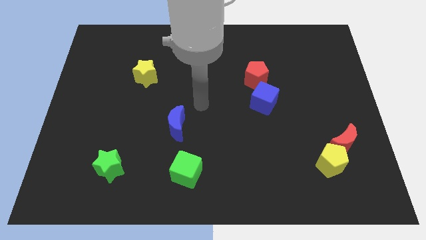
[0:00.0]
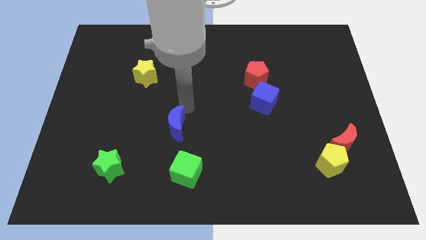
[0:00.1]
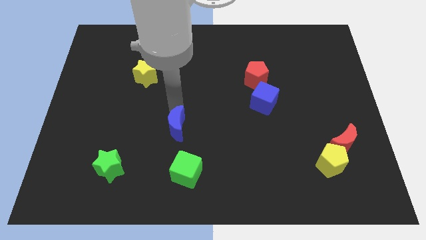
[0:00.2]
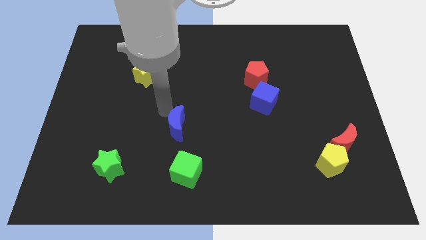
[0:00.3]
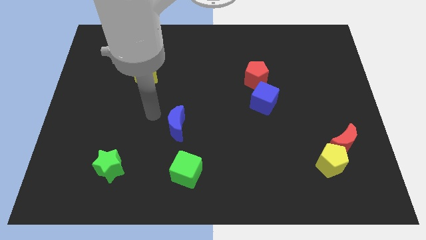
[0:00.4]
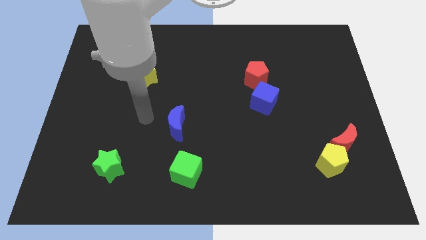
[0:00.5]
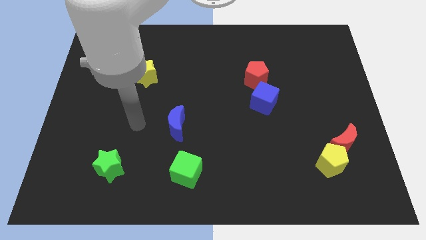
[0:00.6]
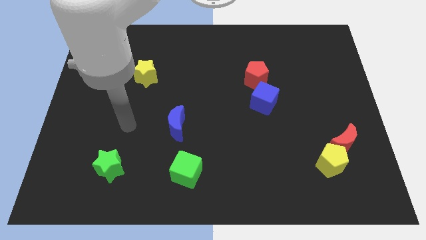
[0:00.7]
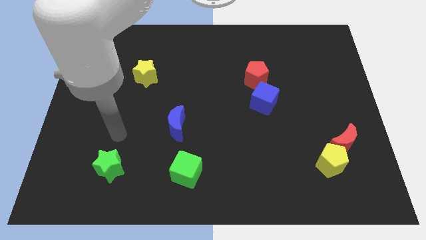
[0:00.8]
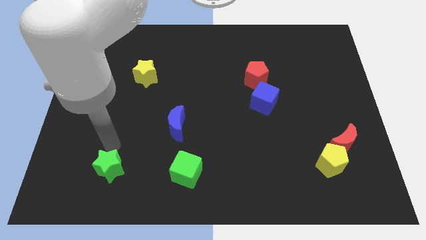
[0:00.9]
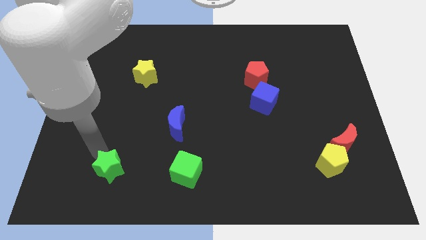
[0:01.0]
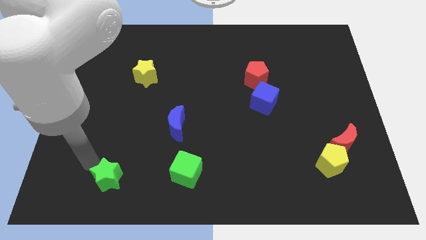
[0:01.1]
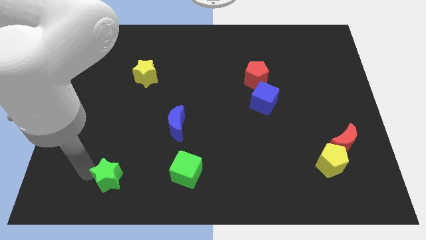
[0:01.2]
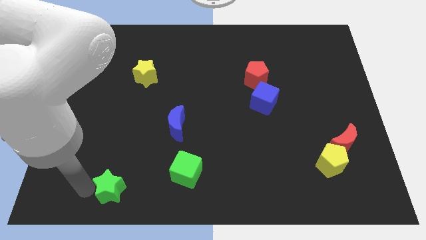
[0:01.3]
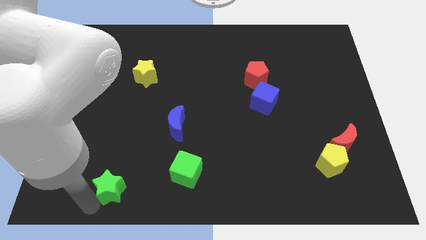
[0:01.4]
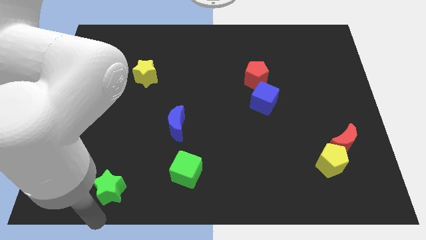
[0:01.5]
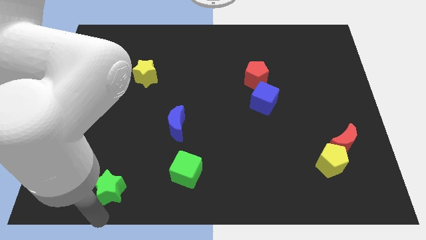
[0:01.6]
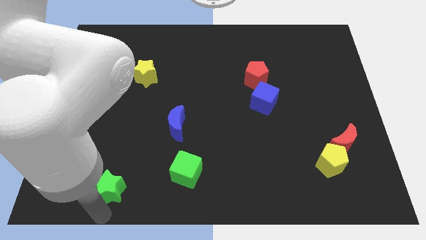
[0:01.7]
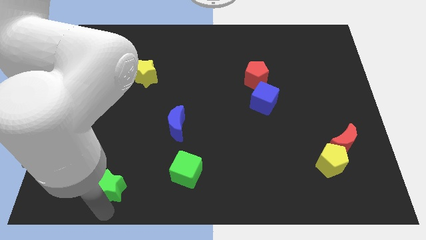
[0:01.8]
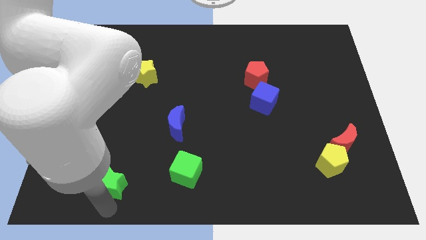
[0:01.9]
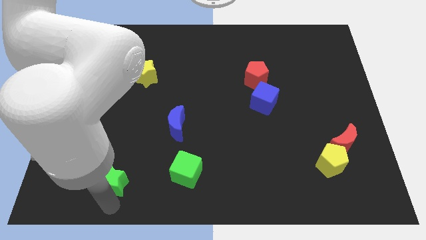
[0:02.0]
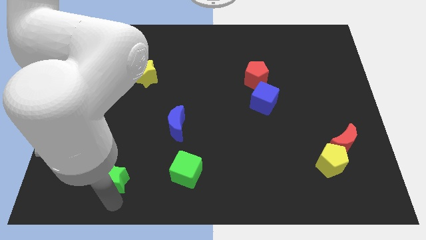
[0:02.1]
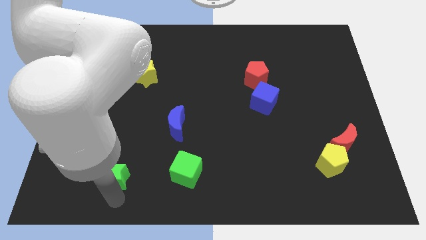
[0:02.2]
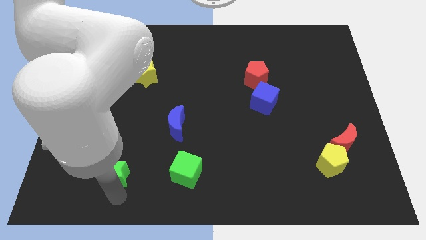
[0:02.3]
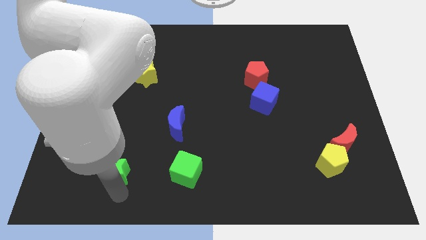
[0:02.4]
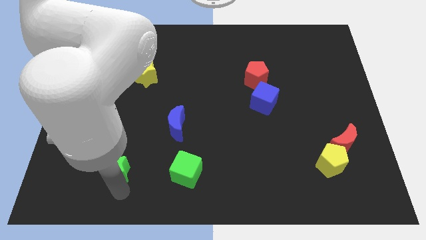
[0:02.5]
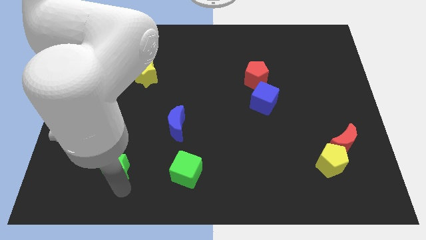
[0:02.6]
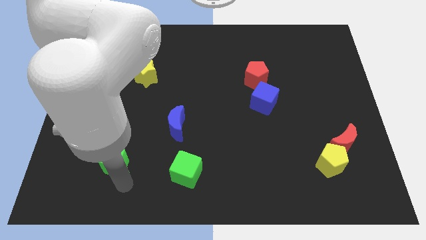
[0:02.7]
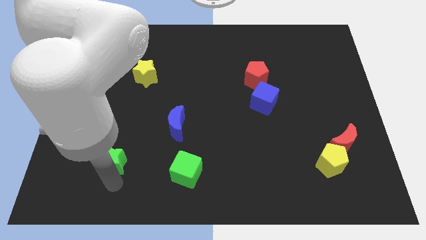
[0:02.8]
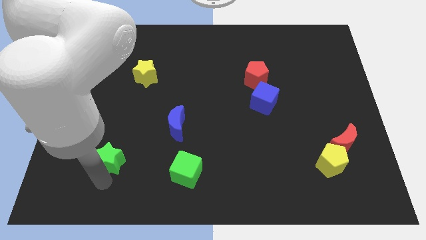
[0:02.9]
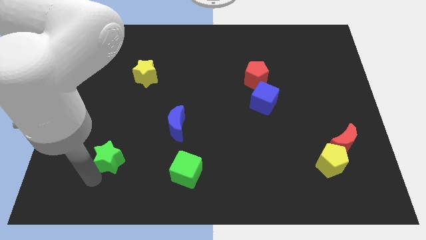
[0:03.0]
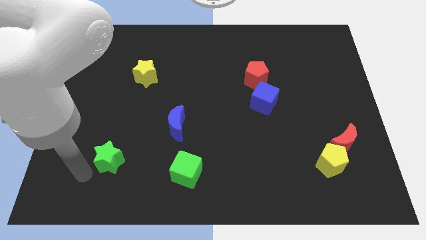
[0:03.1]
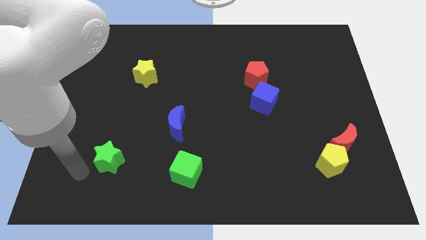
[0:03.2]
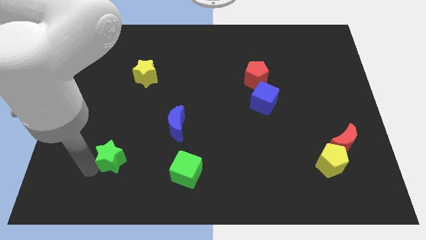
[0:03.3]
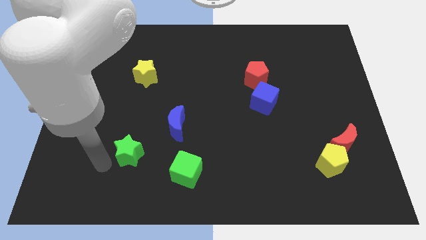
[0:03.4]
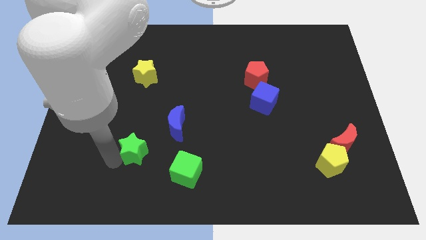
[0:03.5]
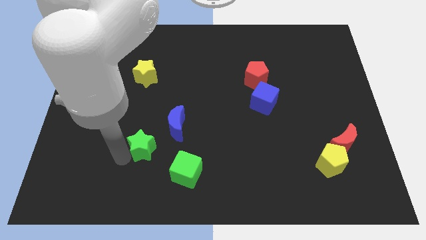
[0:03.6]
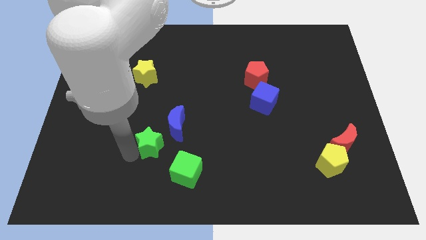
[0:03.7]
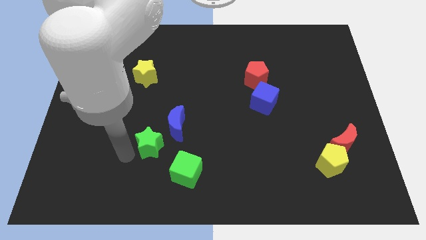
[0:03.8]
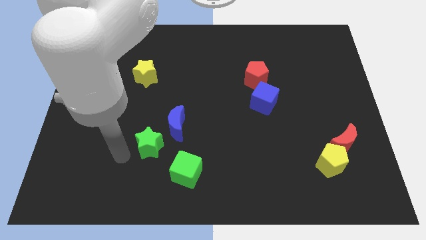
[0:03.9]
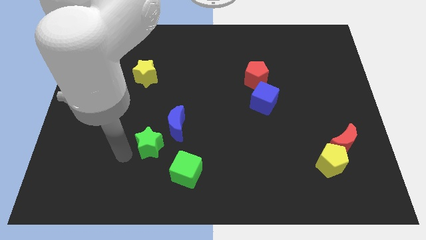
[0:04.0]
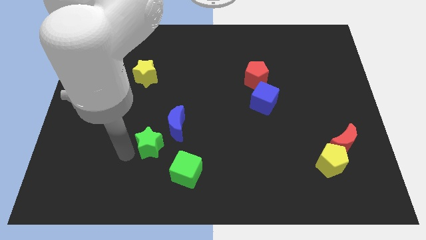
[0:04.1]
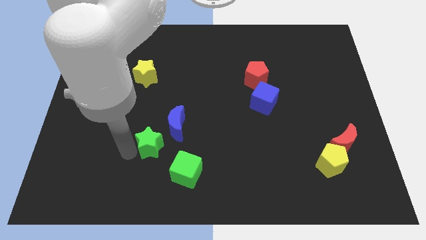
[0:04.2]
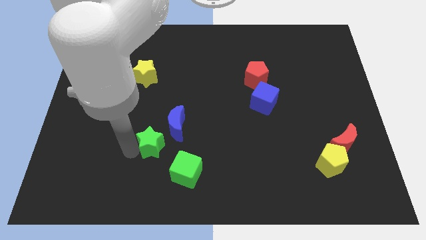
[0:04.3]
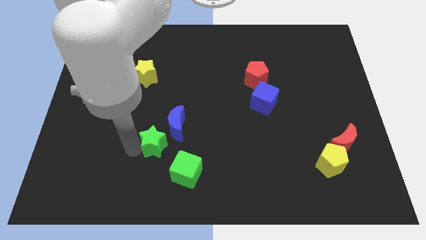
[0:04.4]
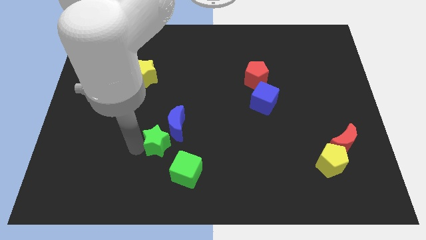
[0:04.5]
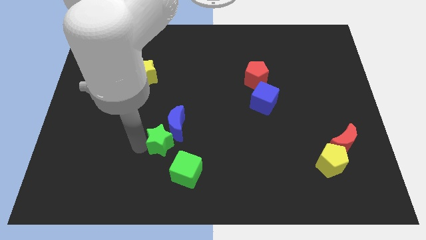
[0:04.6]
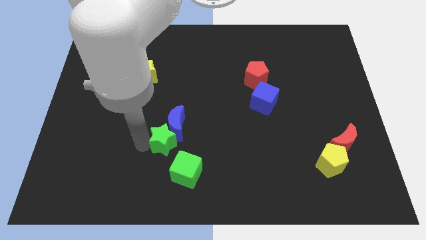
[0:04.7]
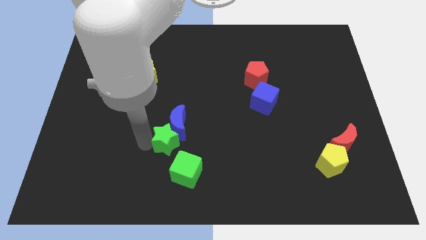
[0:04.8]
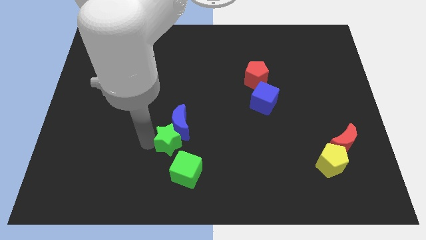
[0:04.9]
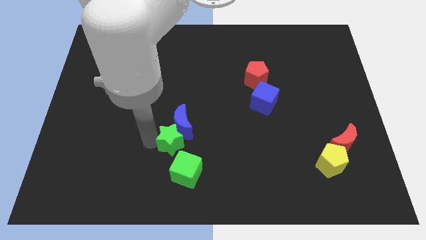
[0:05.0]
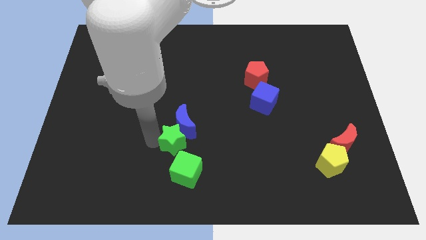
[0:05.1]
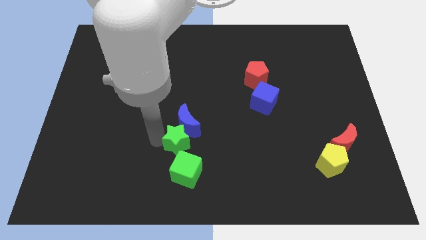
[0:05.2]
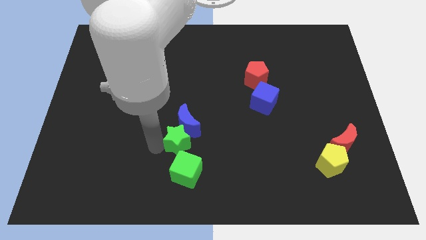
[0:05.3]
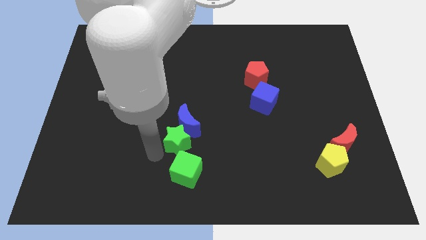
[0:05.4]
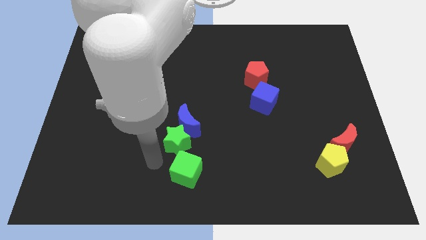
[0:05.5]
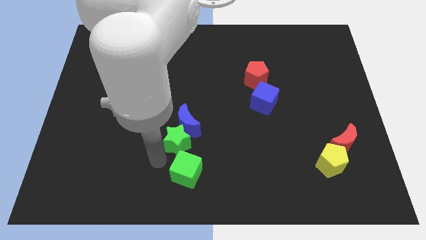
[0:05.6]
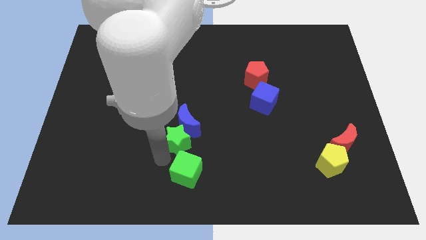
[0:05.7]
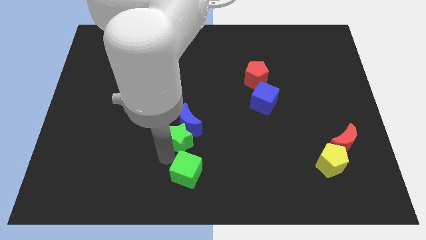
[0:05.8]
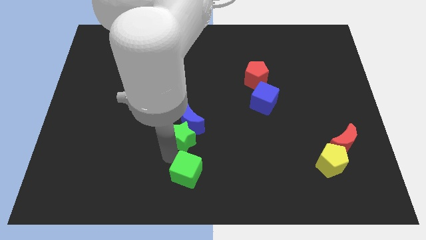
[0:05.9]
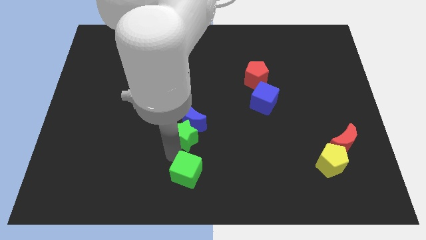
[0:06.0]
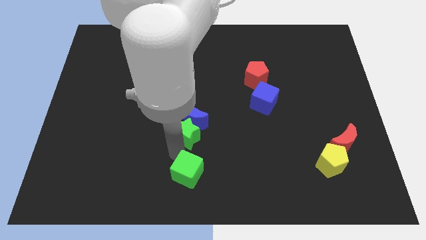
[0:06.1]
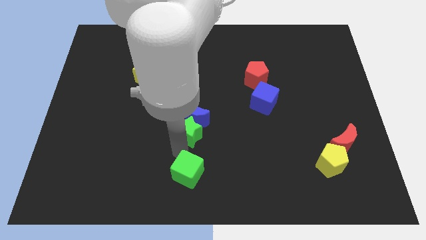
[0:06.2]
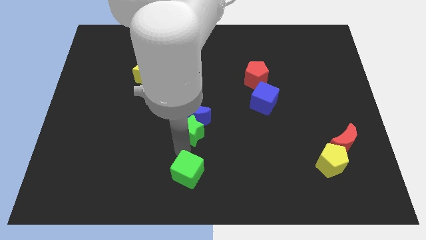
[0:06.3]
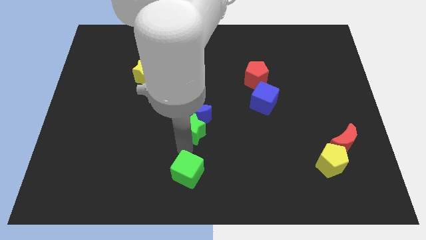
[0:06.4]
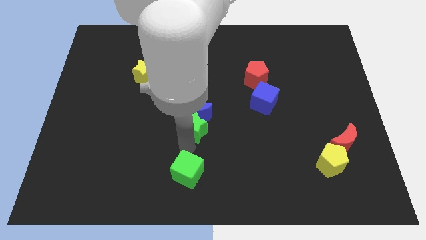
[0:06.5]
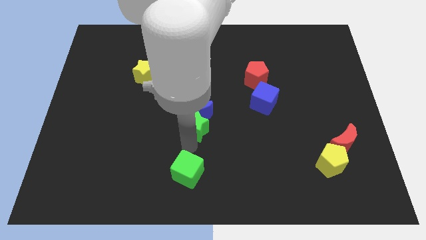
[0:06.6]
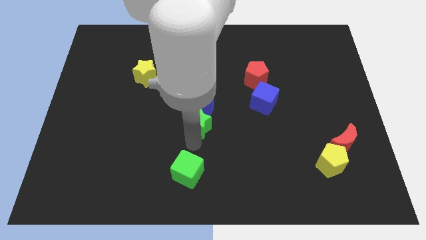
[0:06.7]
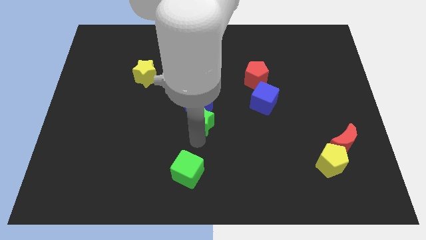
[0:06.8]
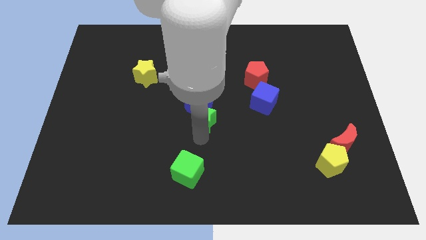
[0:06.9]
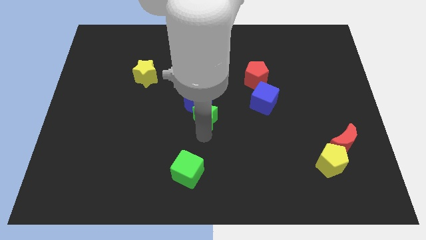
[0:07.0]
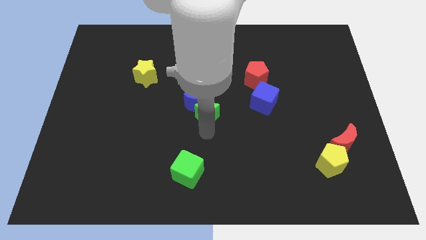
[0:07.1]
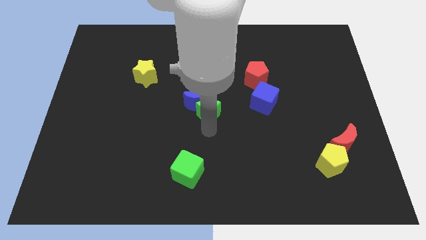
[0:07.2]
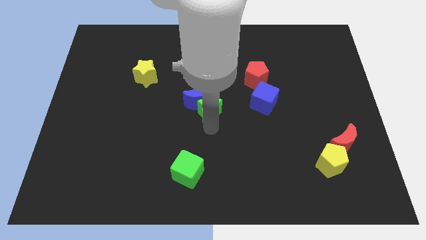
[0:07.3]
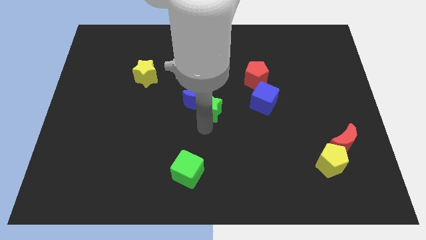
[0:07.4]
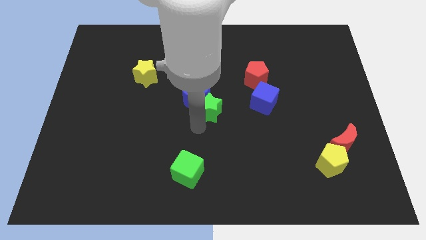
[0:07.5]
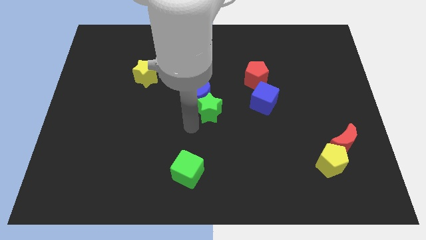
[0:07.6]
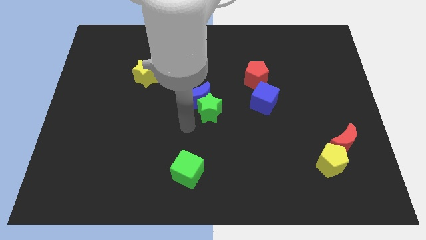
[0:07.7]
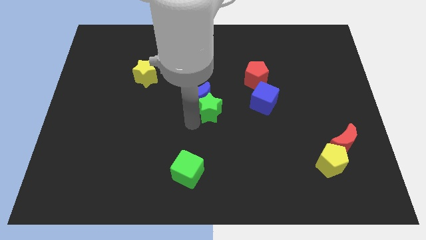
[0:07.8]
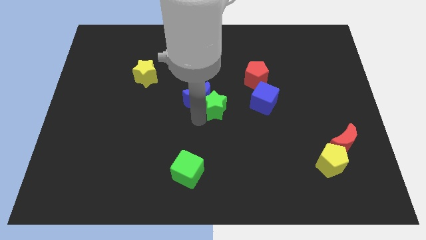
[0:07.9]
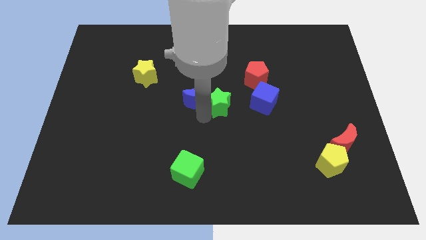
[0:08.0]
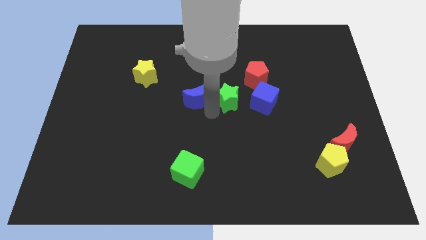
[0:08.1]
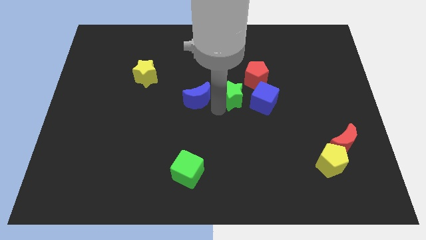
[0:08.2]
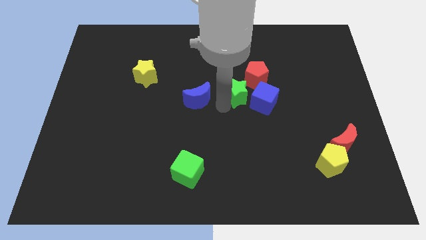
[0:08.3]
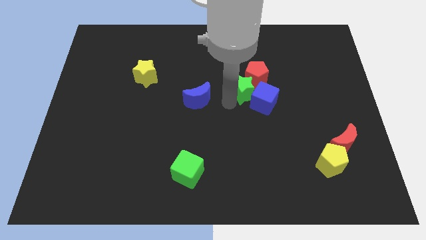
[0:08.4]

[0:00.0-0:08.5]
put the green star next to the red pentagon
